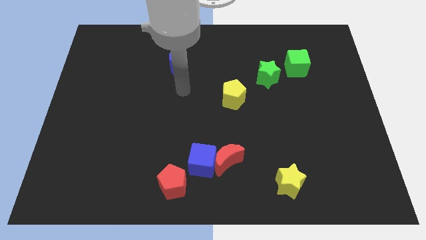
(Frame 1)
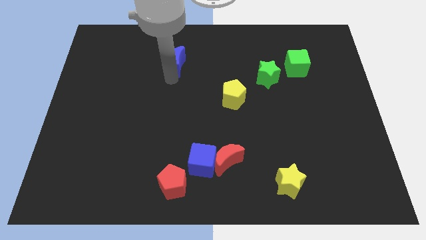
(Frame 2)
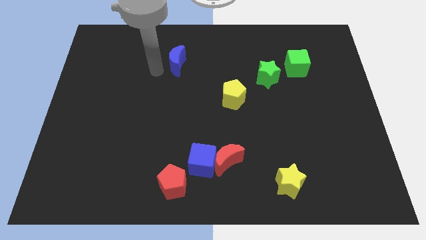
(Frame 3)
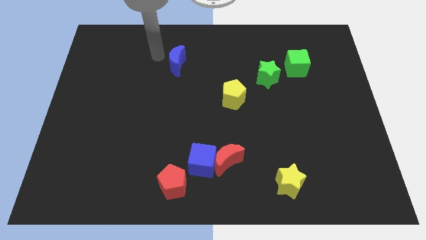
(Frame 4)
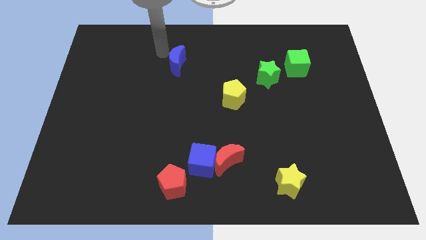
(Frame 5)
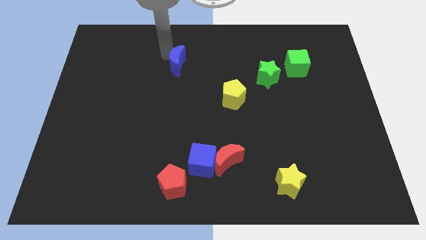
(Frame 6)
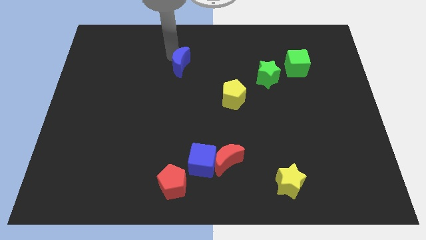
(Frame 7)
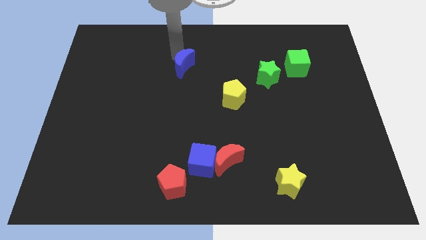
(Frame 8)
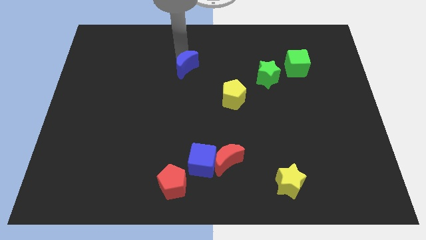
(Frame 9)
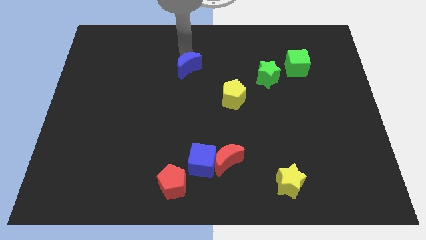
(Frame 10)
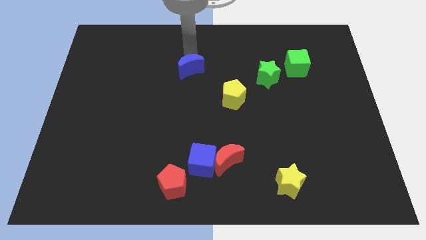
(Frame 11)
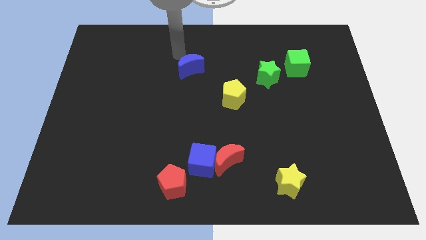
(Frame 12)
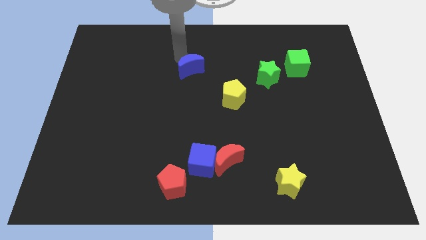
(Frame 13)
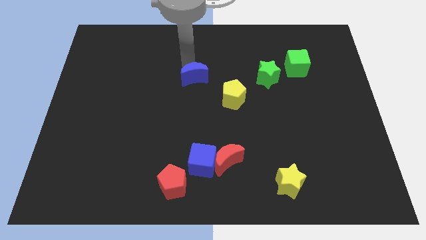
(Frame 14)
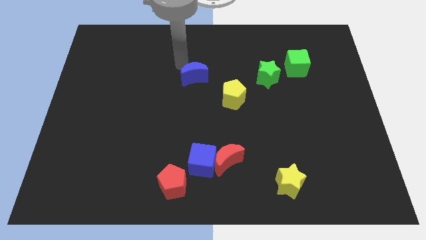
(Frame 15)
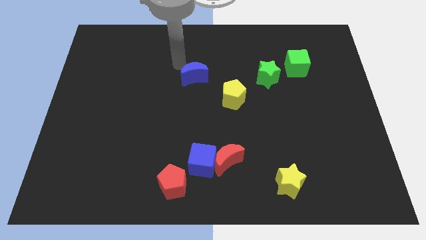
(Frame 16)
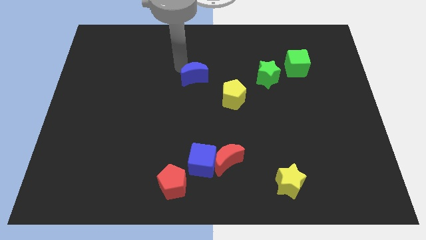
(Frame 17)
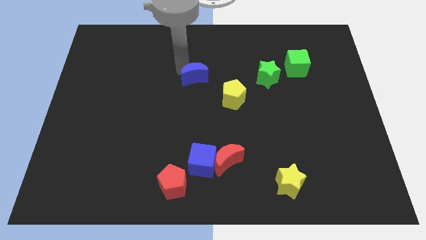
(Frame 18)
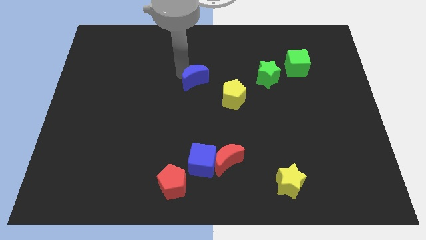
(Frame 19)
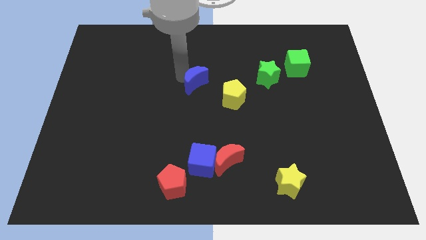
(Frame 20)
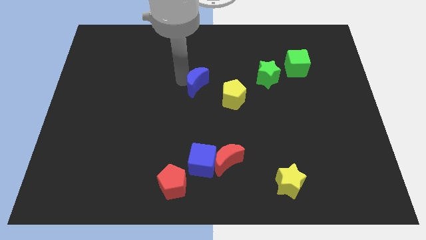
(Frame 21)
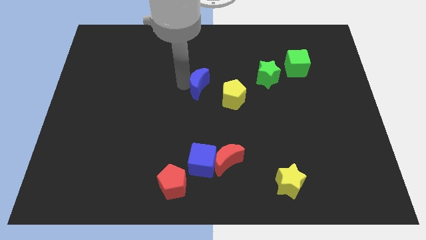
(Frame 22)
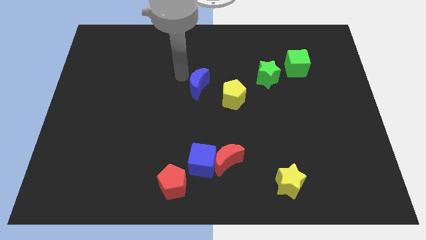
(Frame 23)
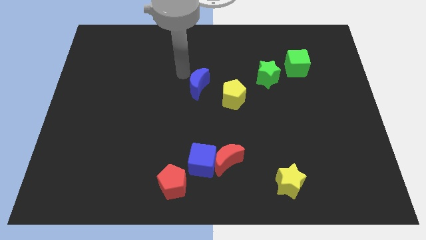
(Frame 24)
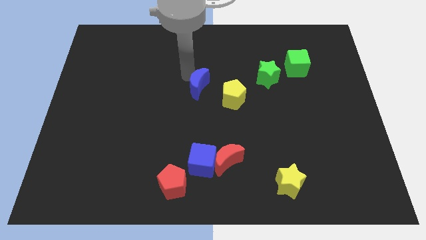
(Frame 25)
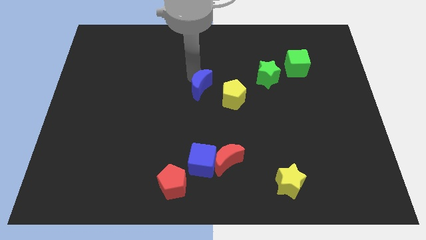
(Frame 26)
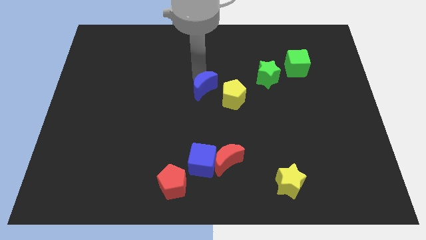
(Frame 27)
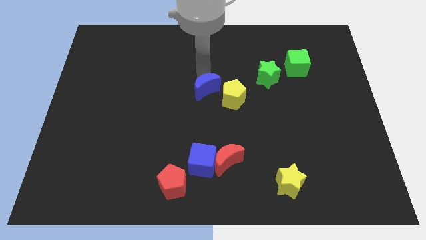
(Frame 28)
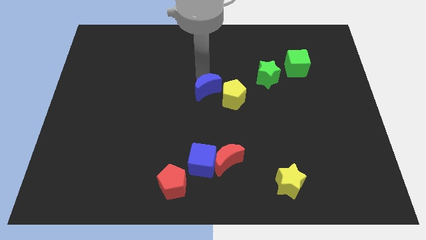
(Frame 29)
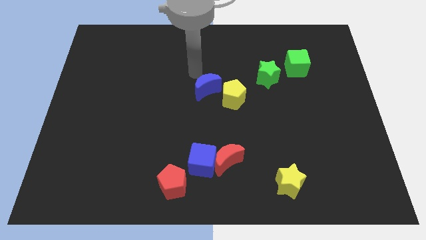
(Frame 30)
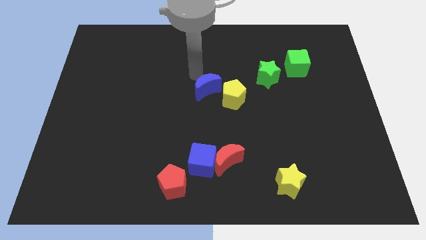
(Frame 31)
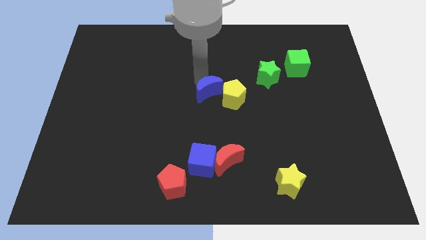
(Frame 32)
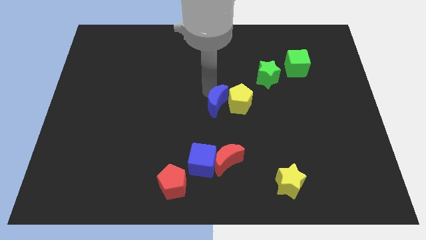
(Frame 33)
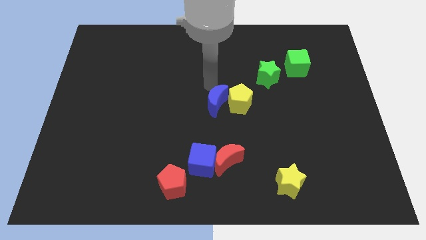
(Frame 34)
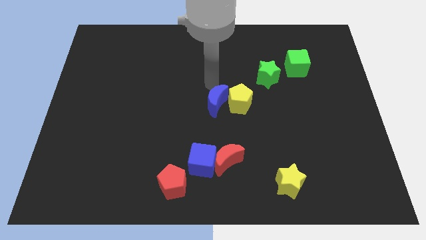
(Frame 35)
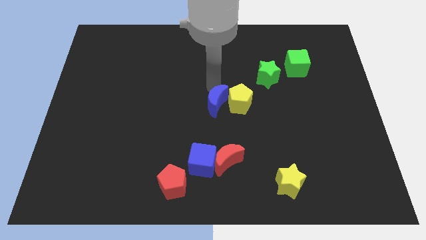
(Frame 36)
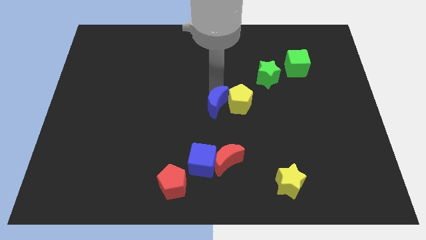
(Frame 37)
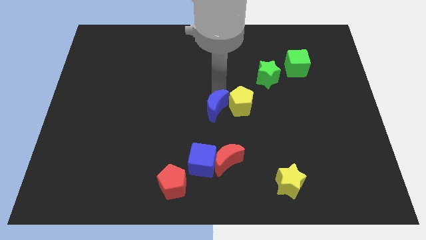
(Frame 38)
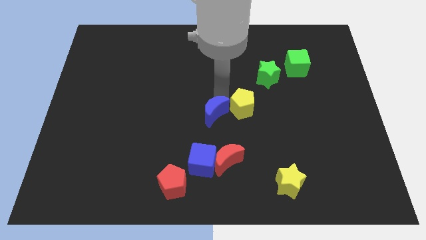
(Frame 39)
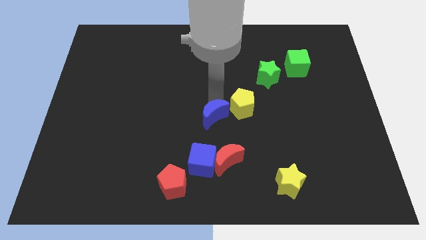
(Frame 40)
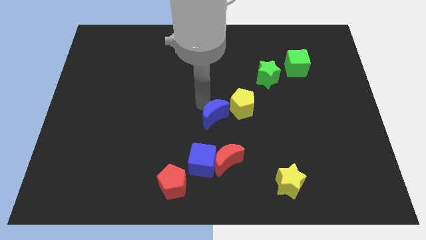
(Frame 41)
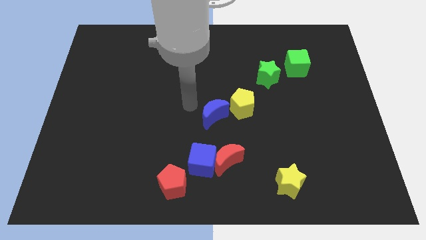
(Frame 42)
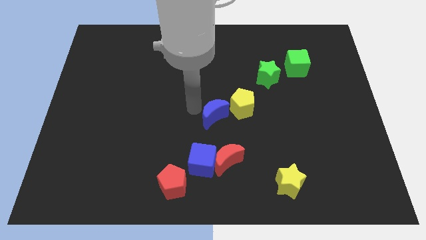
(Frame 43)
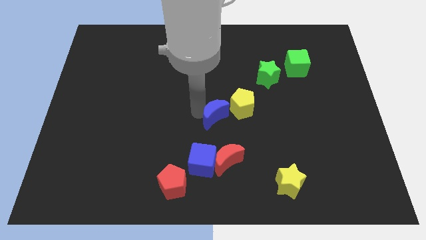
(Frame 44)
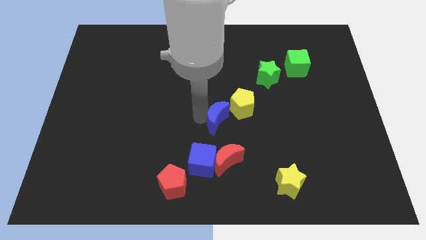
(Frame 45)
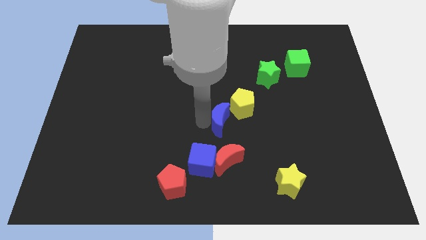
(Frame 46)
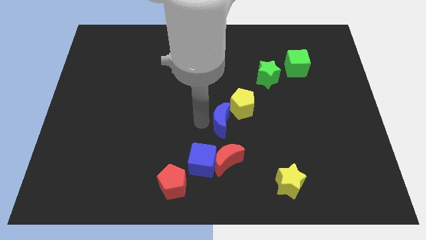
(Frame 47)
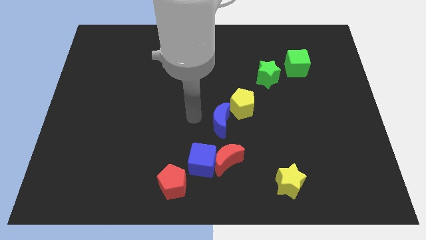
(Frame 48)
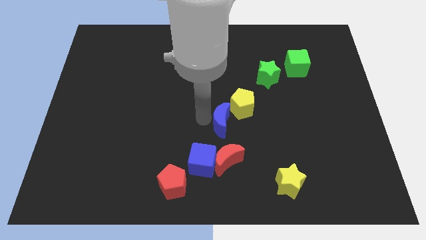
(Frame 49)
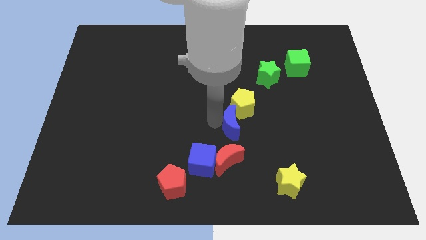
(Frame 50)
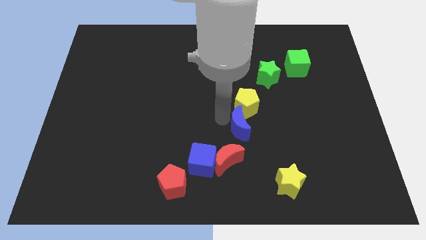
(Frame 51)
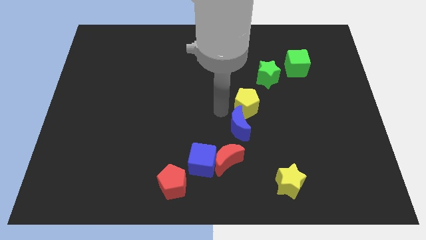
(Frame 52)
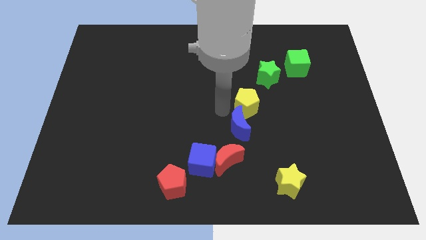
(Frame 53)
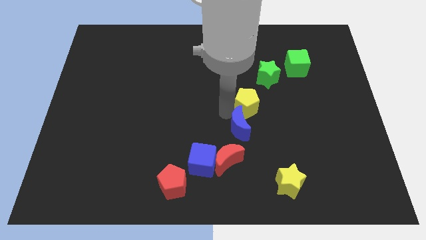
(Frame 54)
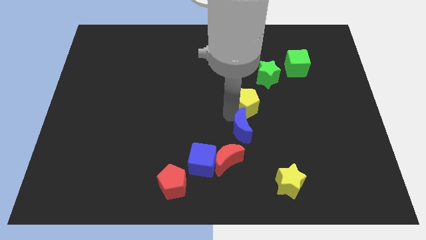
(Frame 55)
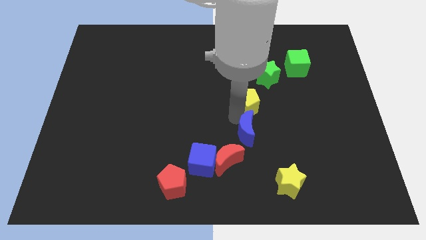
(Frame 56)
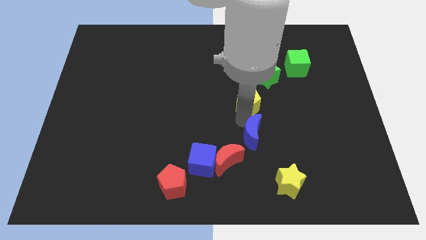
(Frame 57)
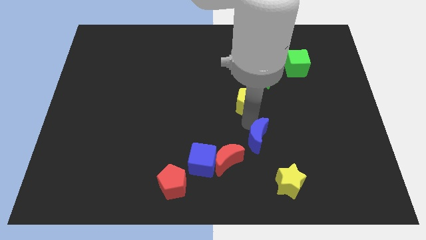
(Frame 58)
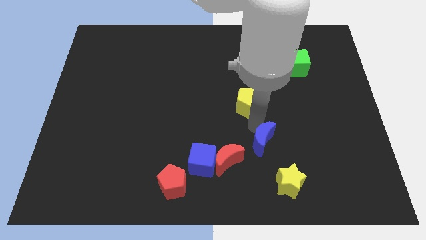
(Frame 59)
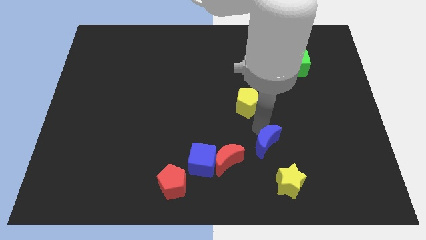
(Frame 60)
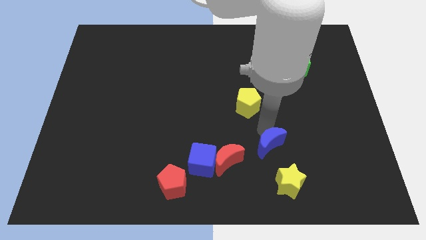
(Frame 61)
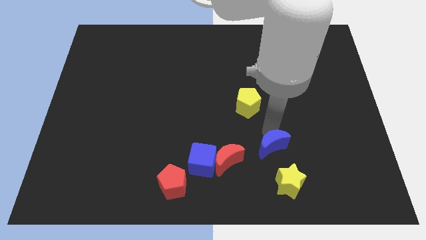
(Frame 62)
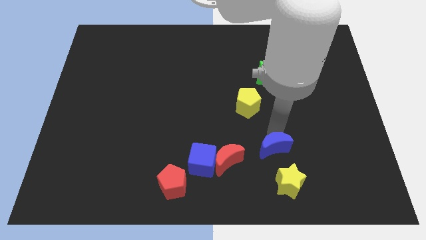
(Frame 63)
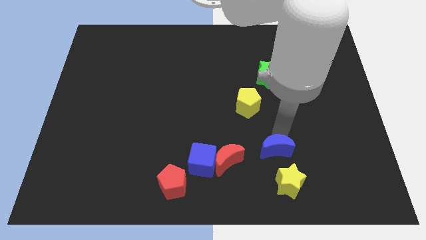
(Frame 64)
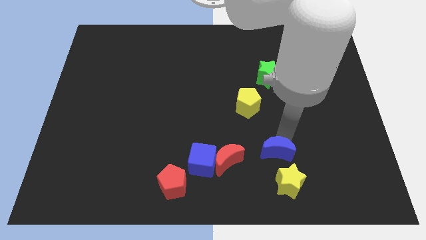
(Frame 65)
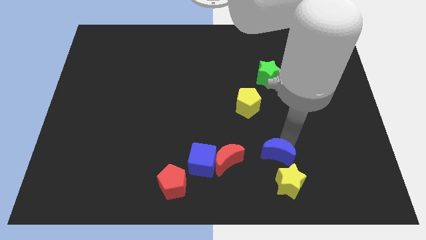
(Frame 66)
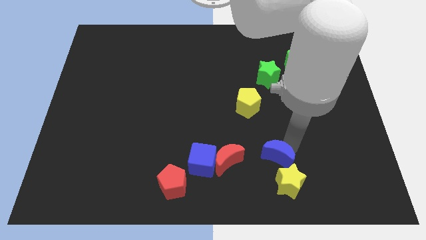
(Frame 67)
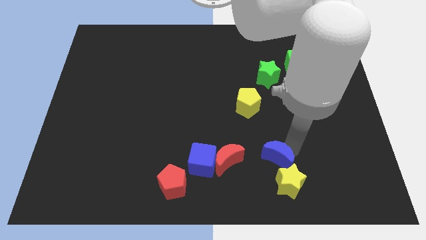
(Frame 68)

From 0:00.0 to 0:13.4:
move the blue moon close to the yellow star
